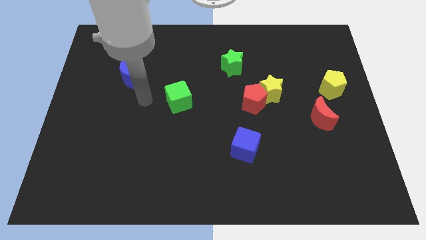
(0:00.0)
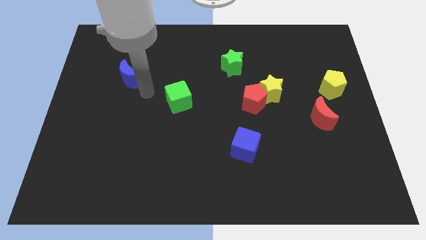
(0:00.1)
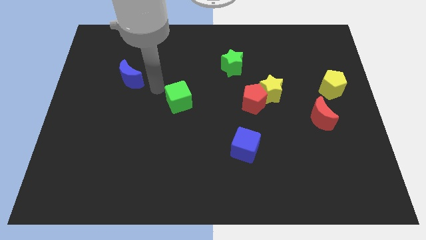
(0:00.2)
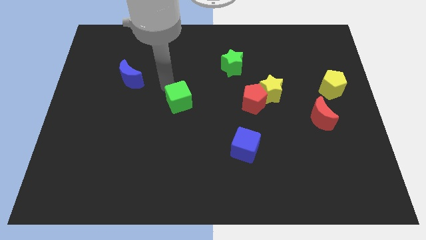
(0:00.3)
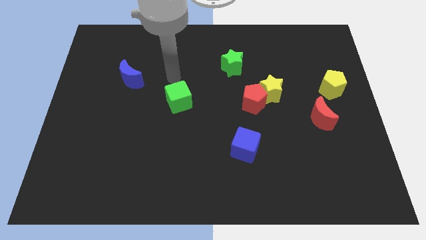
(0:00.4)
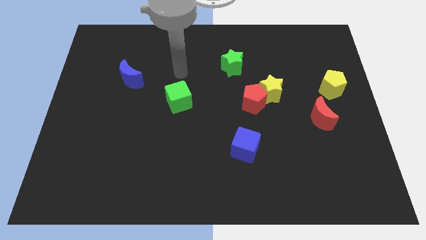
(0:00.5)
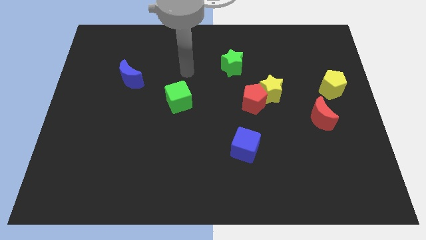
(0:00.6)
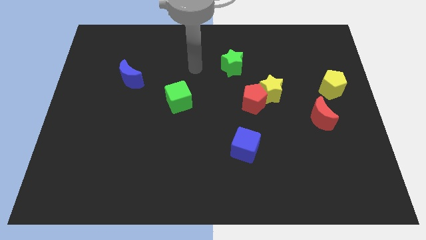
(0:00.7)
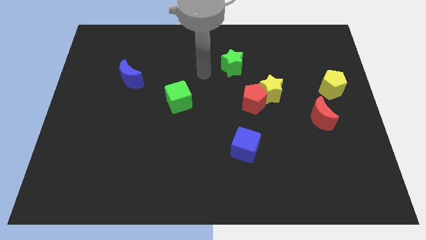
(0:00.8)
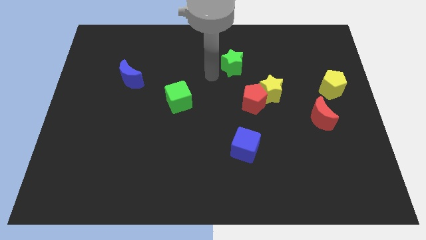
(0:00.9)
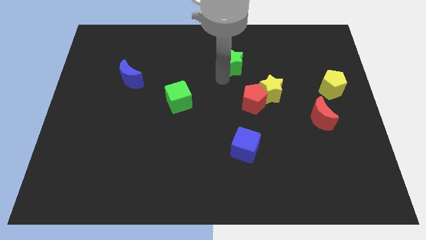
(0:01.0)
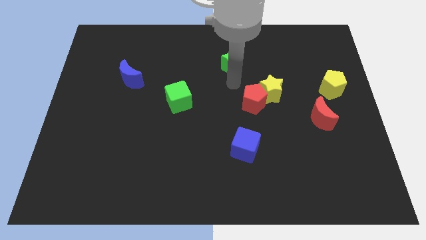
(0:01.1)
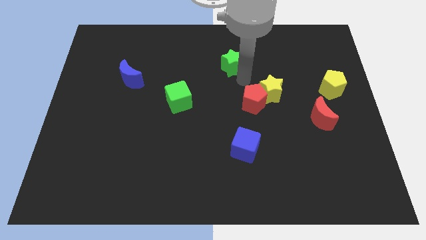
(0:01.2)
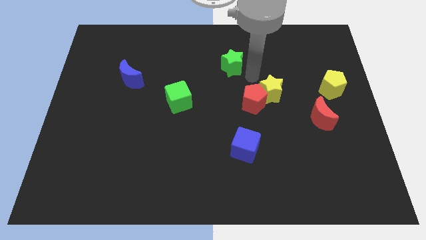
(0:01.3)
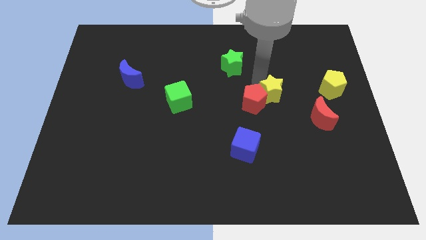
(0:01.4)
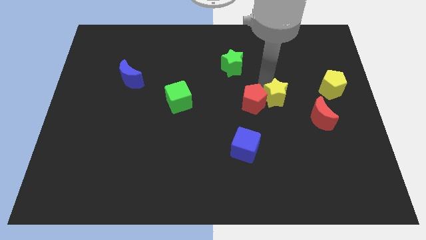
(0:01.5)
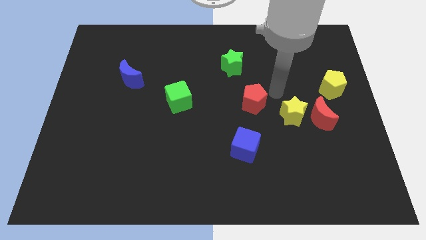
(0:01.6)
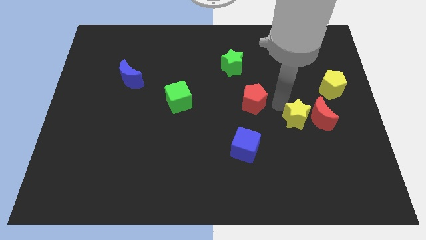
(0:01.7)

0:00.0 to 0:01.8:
pull the red pentagon apart from the yellow star

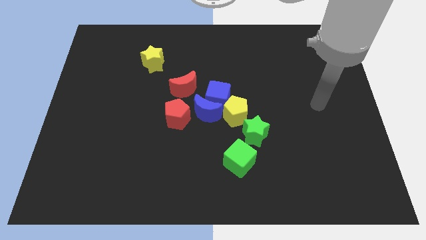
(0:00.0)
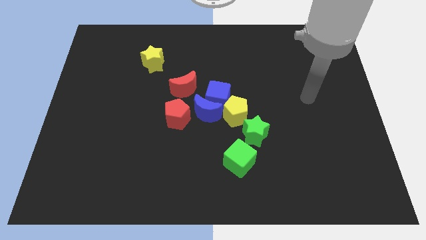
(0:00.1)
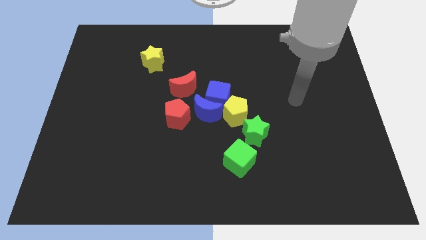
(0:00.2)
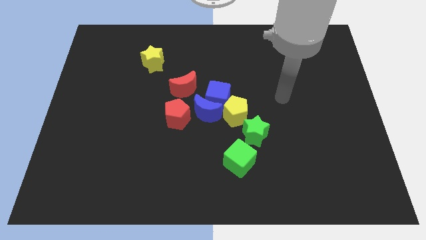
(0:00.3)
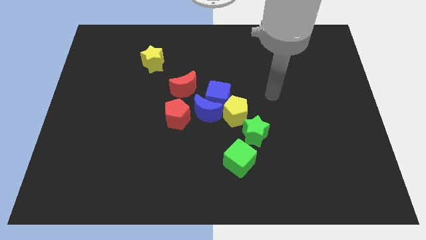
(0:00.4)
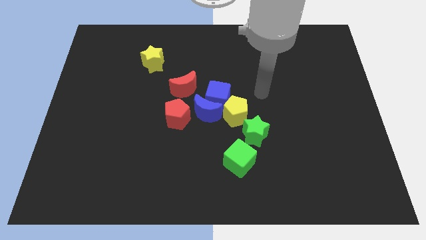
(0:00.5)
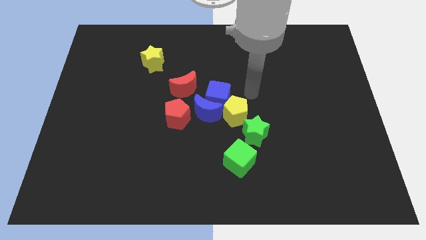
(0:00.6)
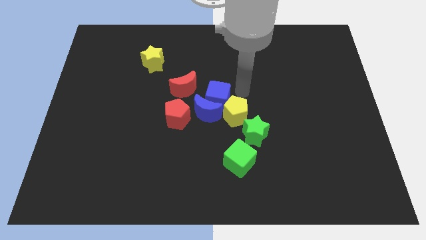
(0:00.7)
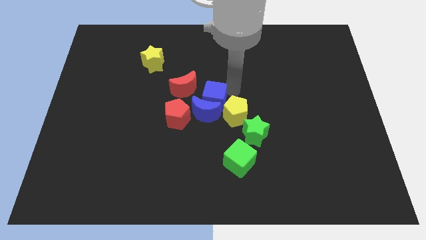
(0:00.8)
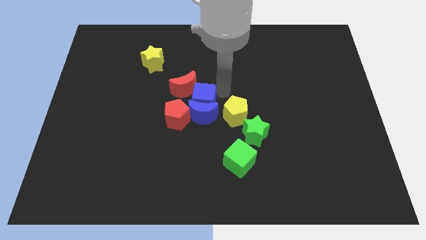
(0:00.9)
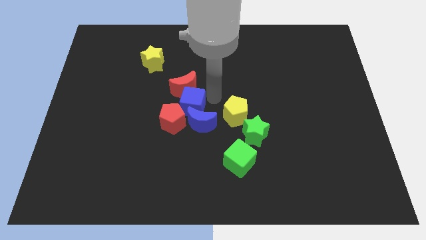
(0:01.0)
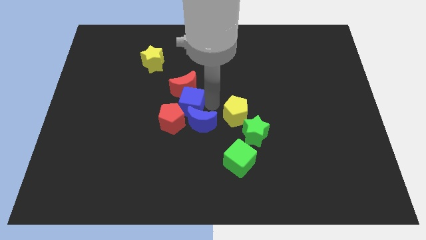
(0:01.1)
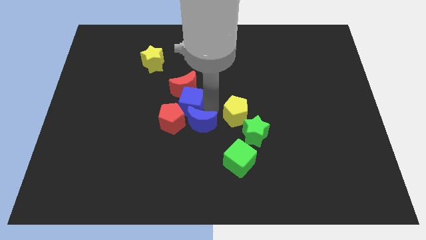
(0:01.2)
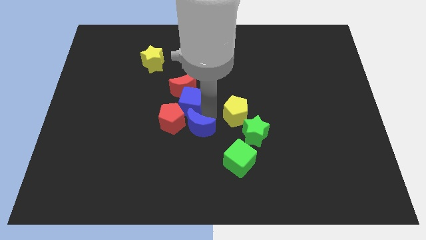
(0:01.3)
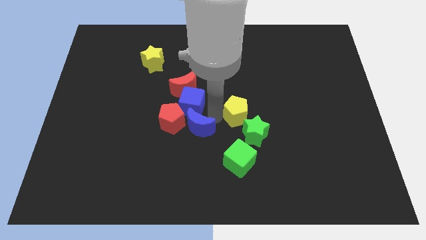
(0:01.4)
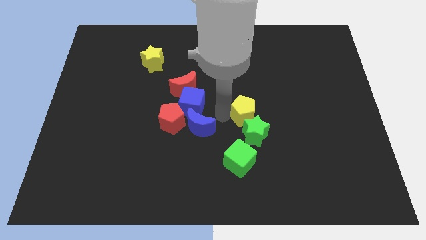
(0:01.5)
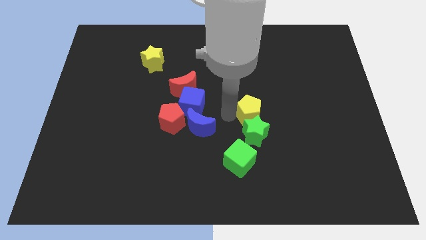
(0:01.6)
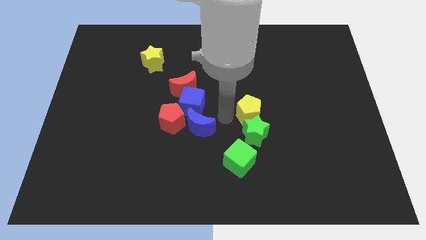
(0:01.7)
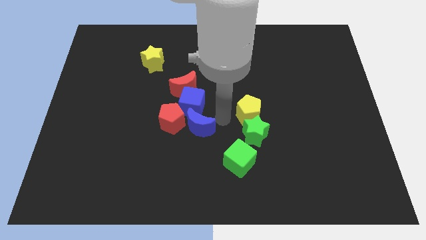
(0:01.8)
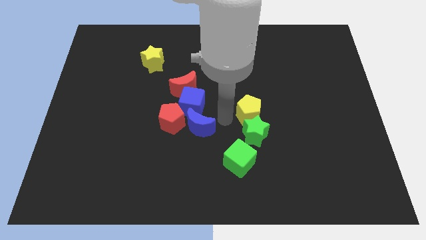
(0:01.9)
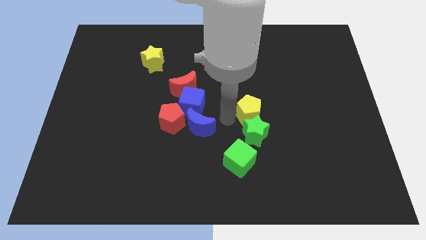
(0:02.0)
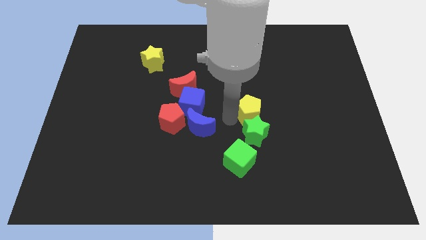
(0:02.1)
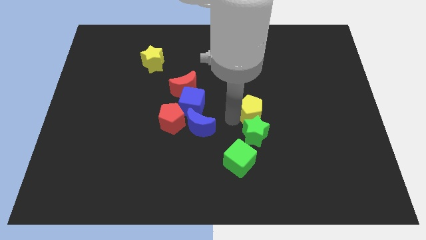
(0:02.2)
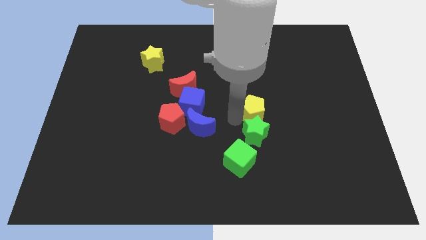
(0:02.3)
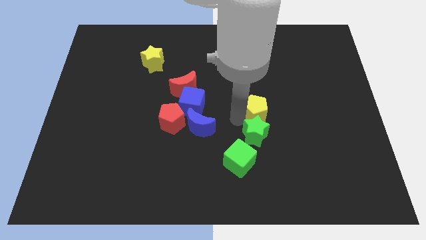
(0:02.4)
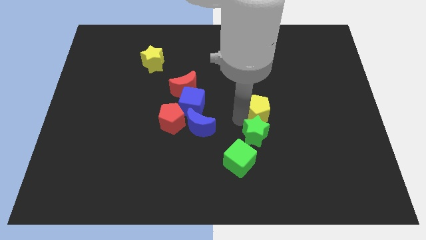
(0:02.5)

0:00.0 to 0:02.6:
separate the yellow pentagon from the clump

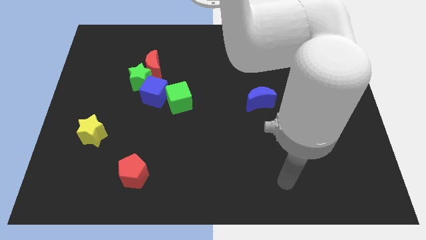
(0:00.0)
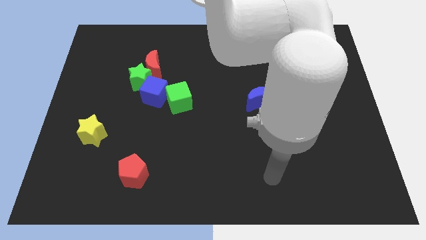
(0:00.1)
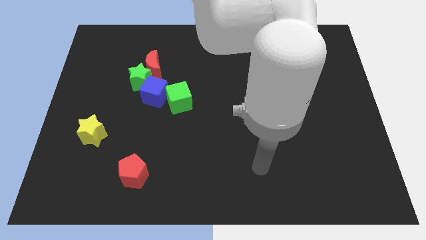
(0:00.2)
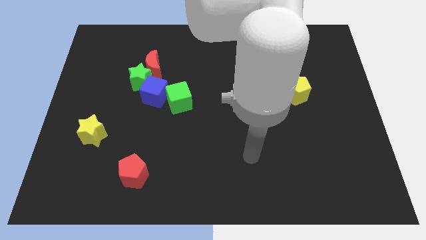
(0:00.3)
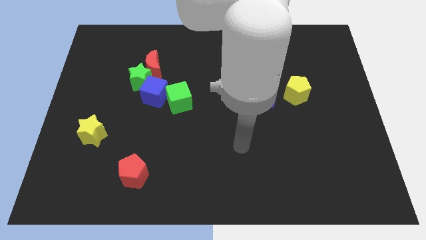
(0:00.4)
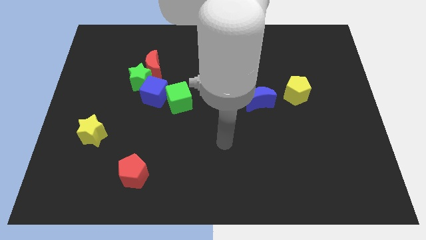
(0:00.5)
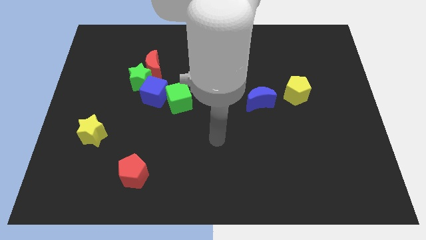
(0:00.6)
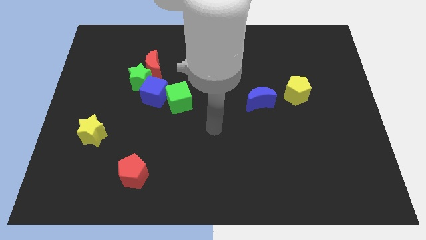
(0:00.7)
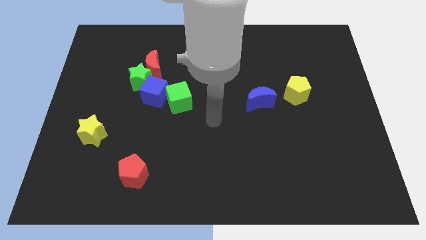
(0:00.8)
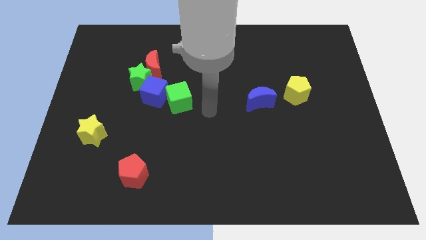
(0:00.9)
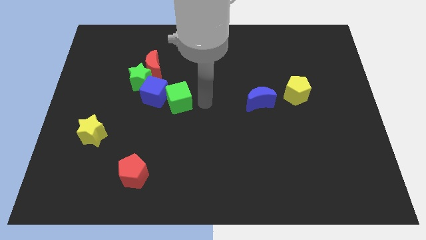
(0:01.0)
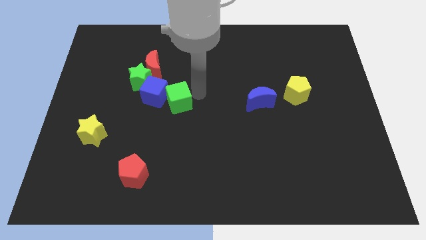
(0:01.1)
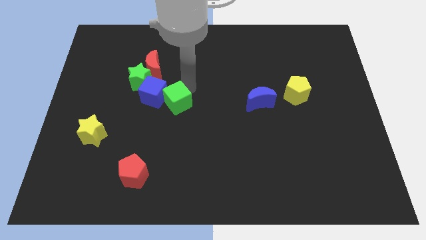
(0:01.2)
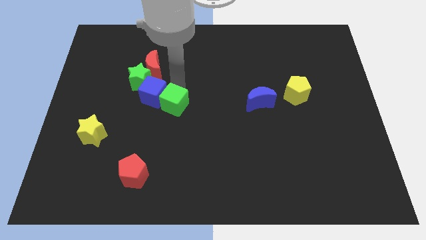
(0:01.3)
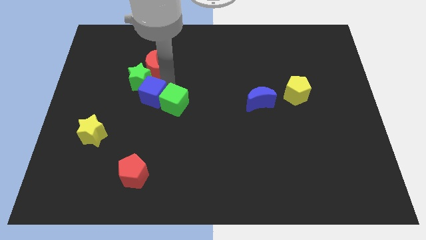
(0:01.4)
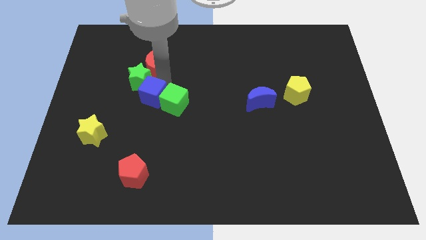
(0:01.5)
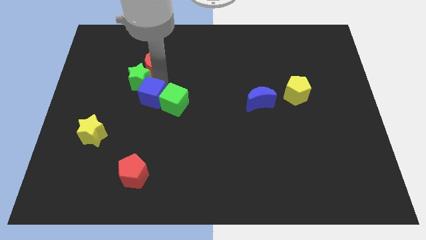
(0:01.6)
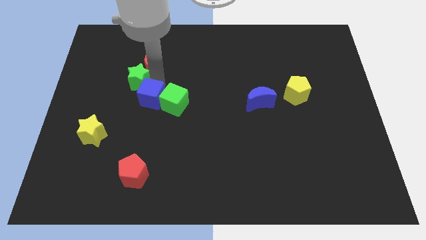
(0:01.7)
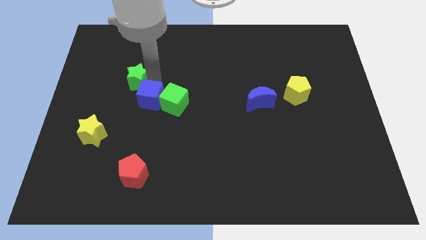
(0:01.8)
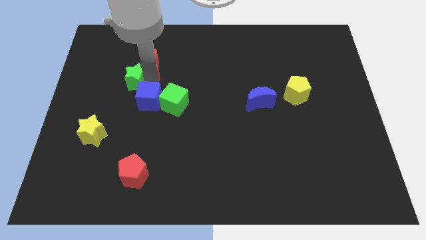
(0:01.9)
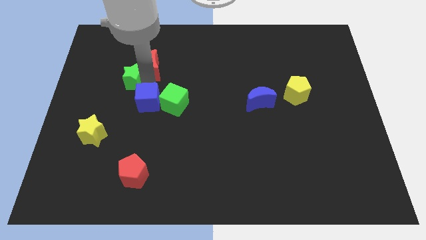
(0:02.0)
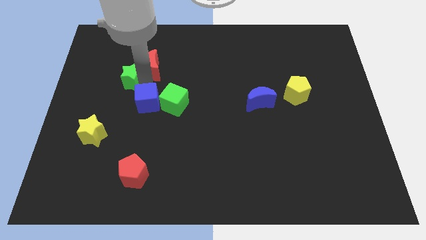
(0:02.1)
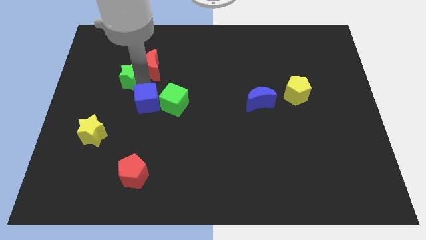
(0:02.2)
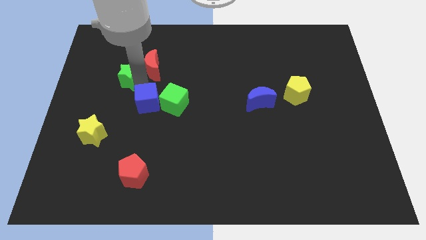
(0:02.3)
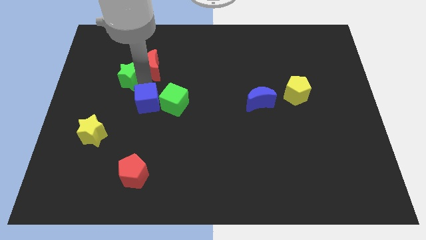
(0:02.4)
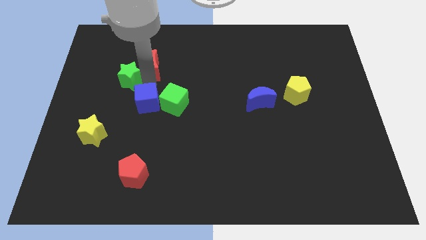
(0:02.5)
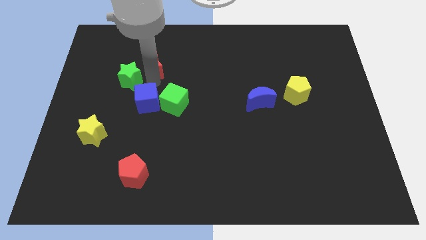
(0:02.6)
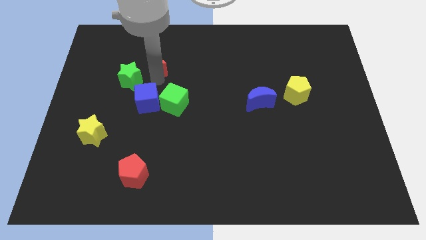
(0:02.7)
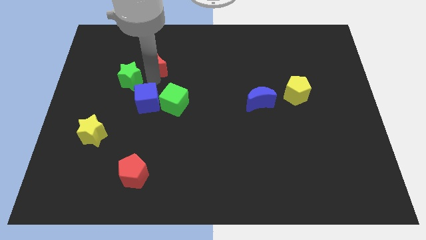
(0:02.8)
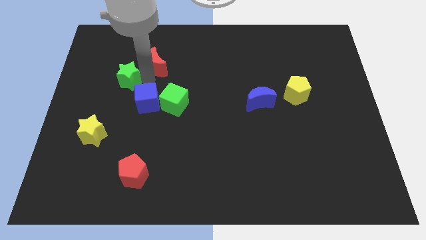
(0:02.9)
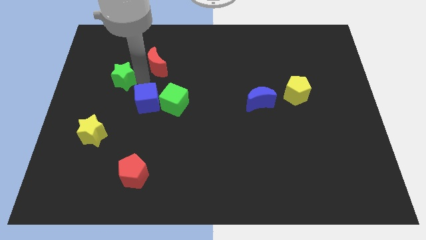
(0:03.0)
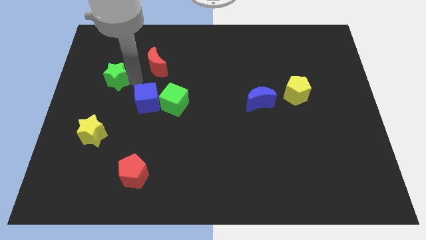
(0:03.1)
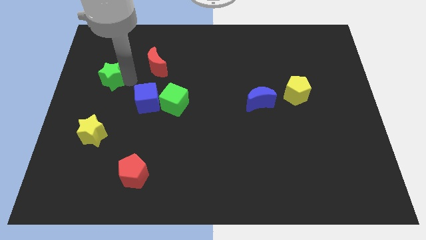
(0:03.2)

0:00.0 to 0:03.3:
separate the green star from the red moon and blue cube

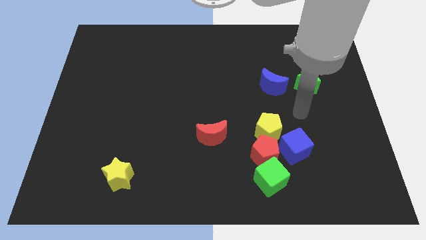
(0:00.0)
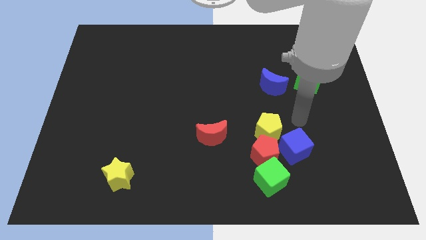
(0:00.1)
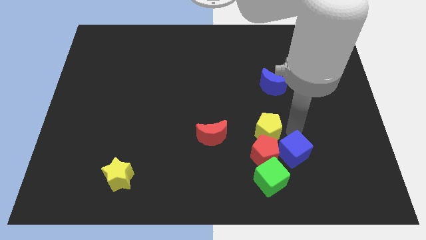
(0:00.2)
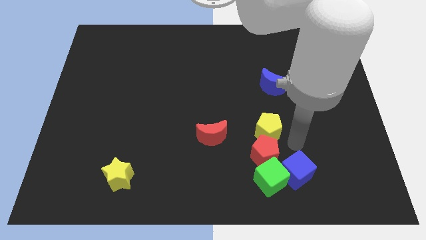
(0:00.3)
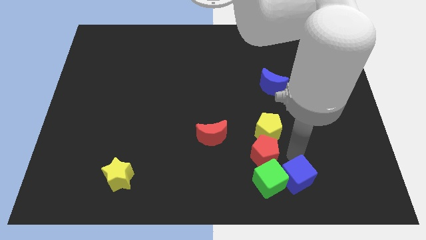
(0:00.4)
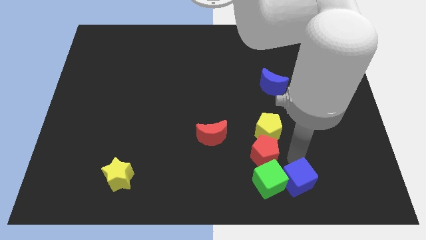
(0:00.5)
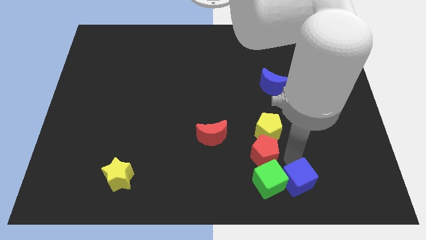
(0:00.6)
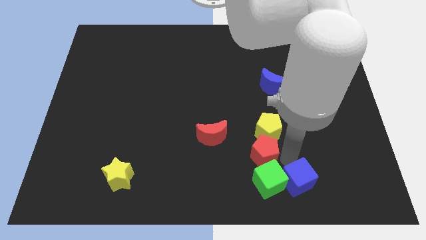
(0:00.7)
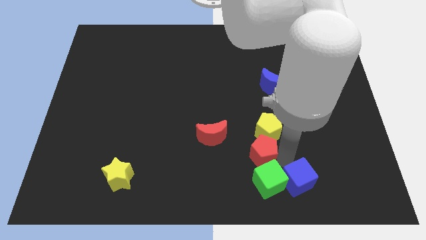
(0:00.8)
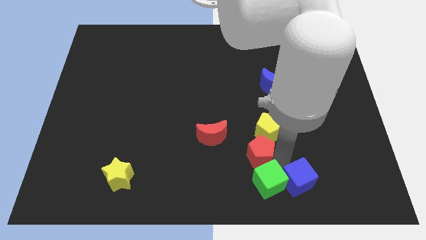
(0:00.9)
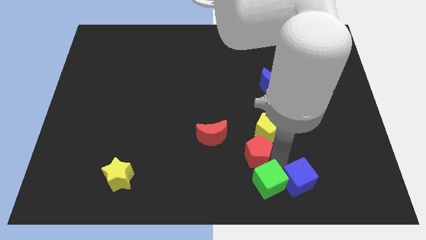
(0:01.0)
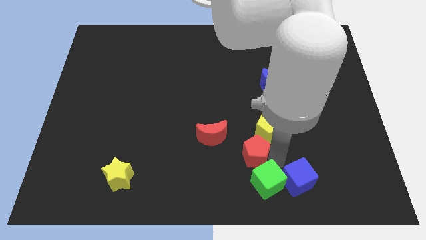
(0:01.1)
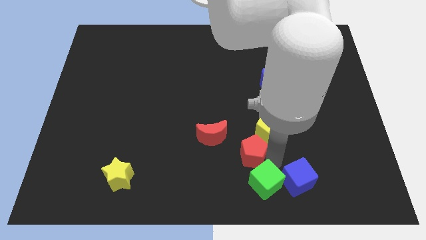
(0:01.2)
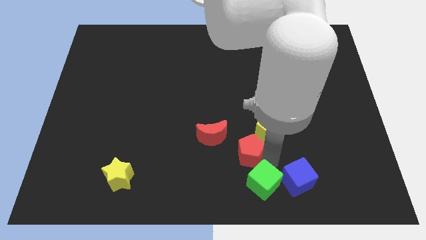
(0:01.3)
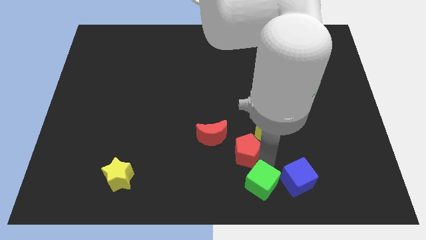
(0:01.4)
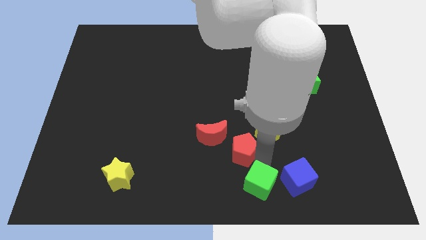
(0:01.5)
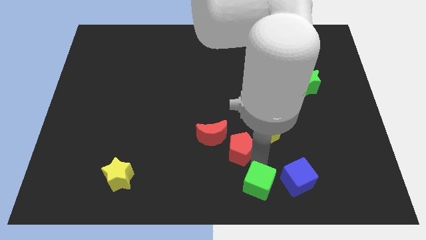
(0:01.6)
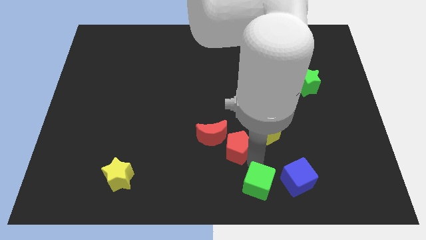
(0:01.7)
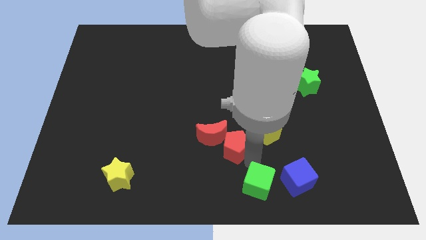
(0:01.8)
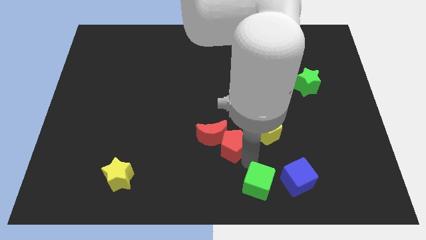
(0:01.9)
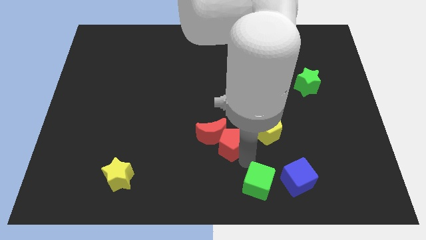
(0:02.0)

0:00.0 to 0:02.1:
separate the red pentagon from the group of blocks
